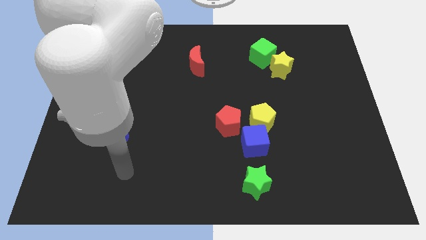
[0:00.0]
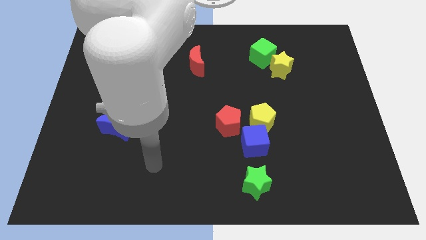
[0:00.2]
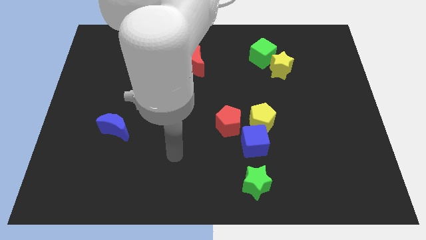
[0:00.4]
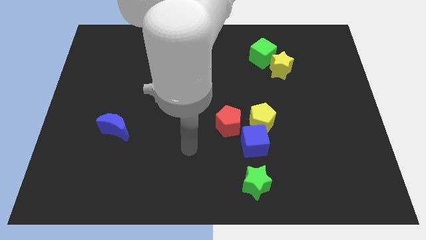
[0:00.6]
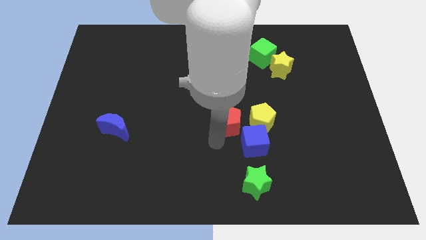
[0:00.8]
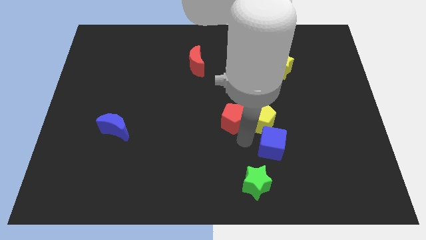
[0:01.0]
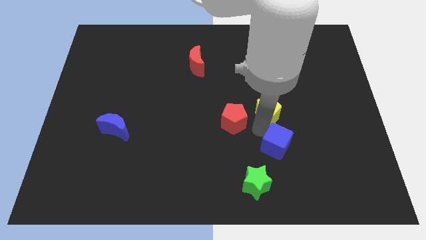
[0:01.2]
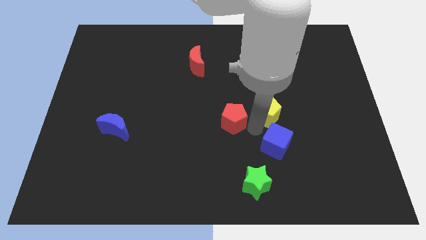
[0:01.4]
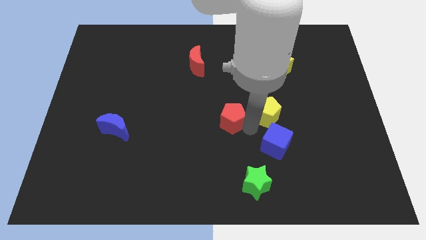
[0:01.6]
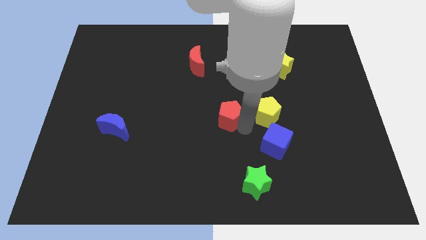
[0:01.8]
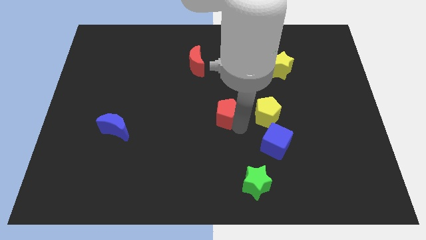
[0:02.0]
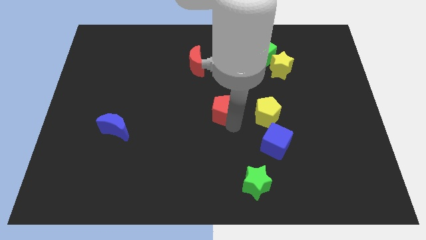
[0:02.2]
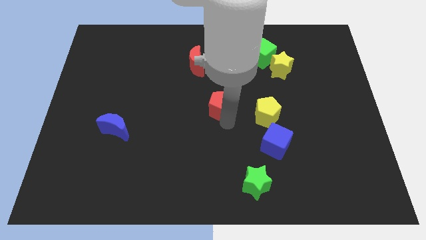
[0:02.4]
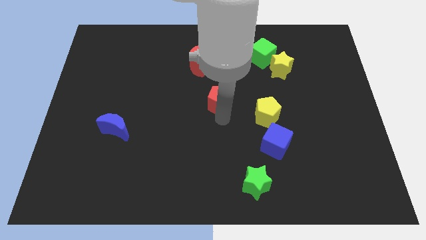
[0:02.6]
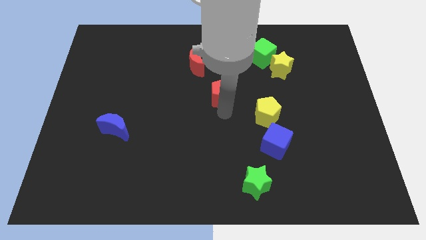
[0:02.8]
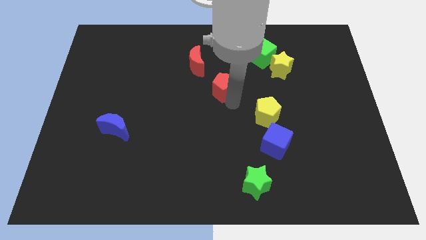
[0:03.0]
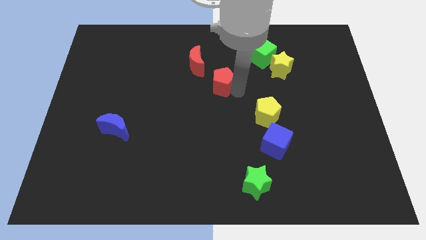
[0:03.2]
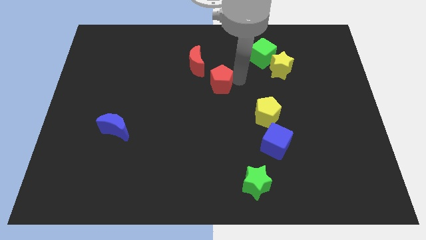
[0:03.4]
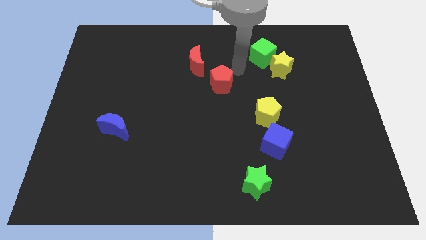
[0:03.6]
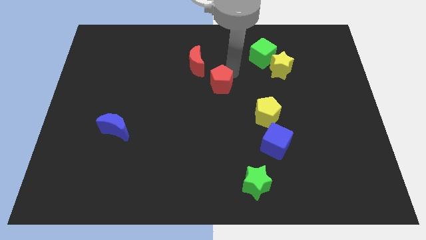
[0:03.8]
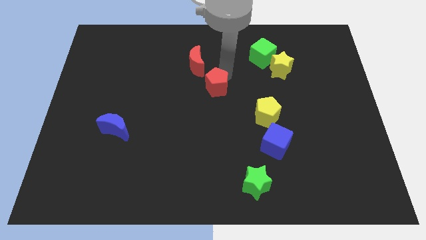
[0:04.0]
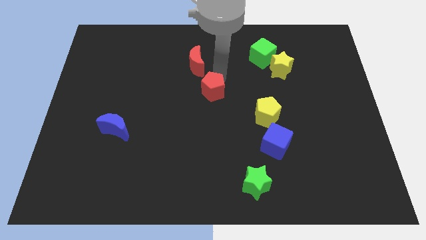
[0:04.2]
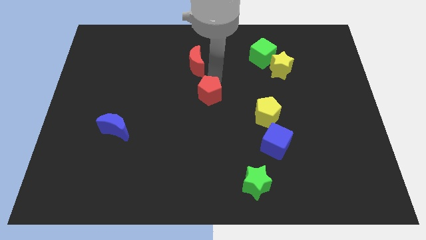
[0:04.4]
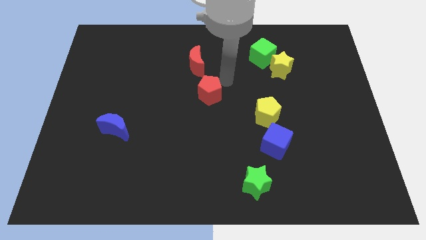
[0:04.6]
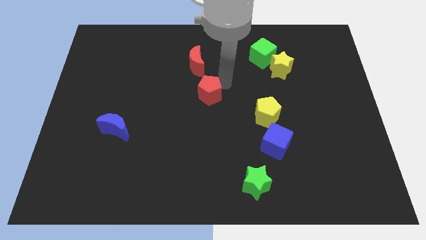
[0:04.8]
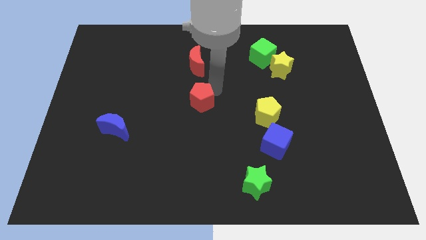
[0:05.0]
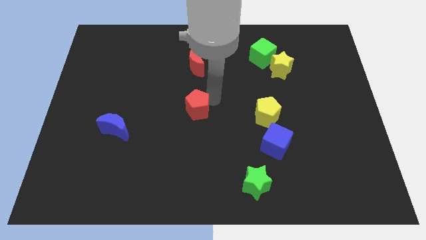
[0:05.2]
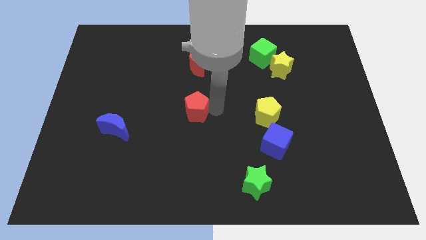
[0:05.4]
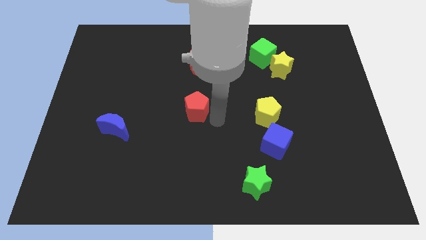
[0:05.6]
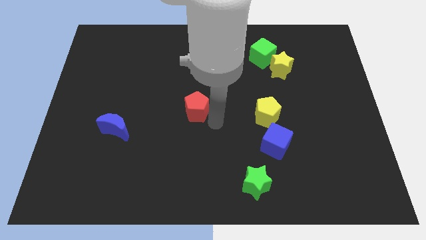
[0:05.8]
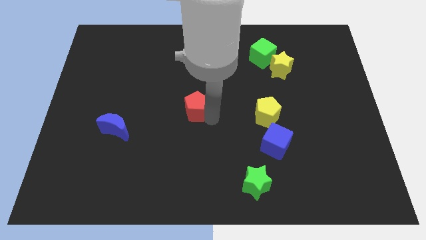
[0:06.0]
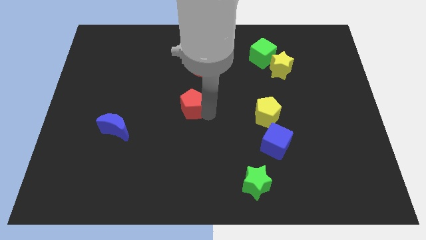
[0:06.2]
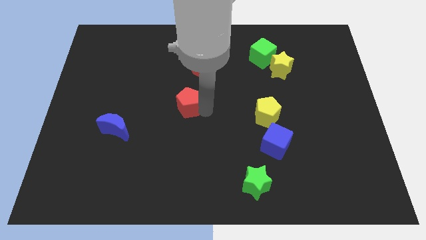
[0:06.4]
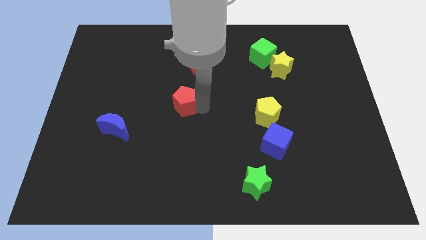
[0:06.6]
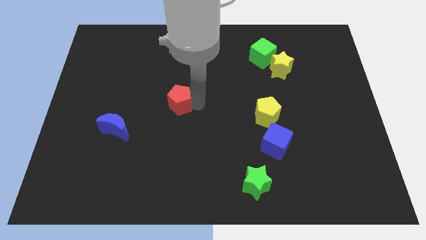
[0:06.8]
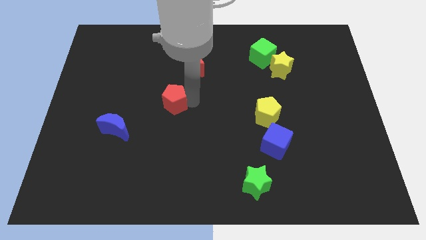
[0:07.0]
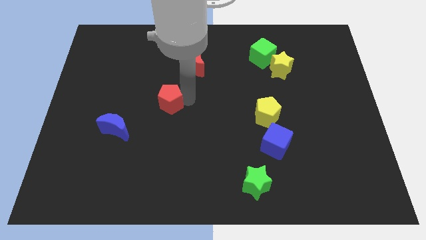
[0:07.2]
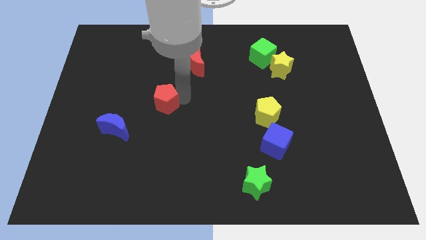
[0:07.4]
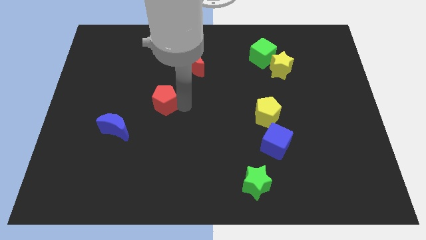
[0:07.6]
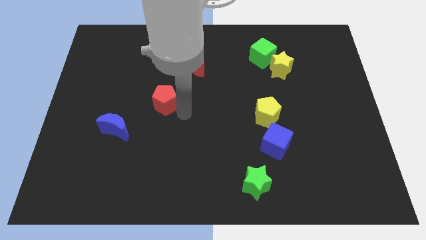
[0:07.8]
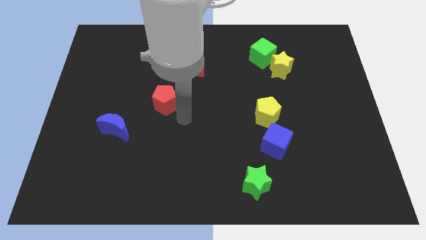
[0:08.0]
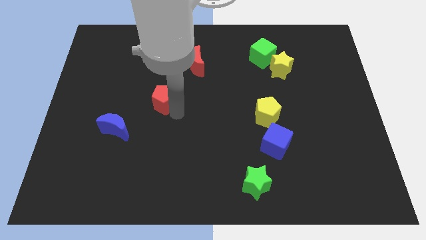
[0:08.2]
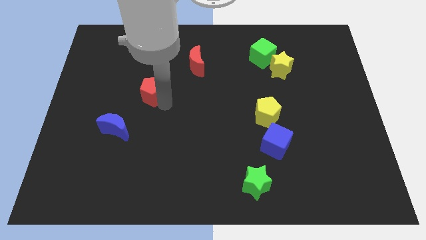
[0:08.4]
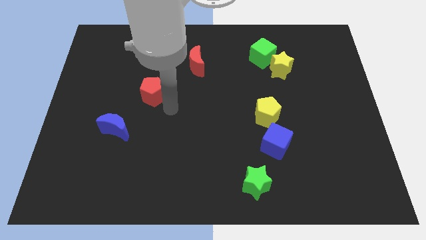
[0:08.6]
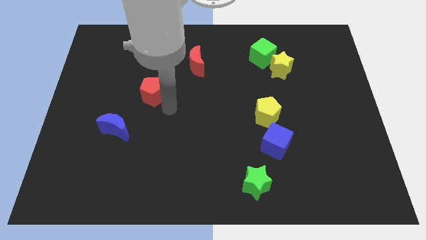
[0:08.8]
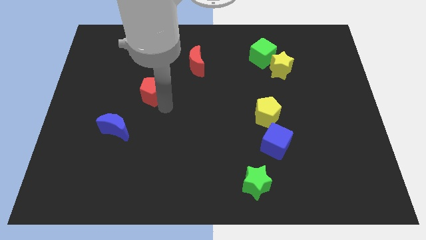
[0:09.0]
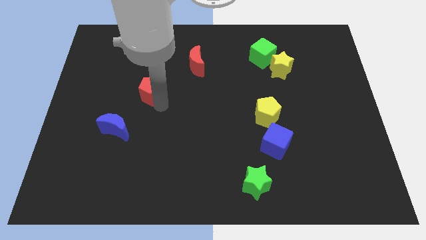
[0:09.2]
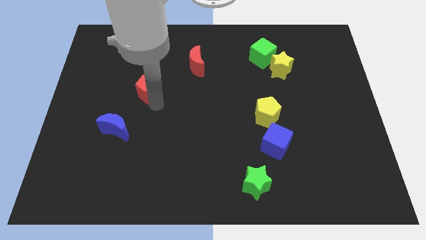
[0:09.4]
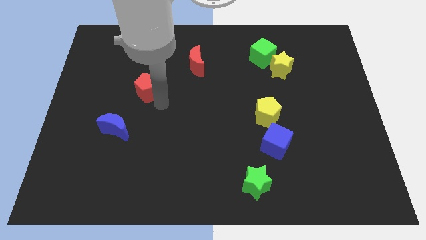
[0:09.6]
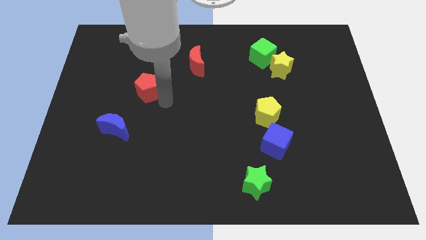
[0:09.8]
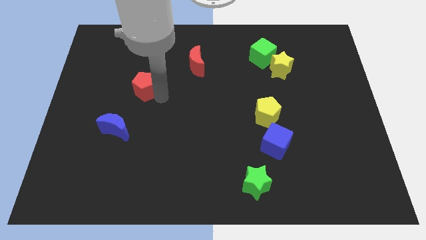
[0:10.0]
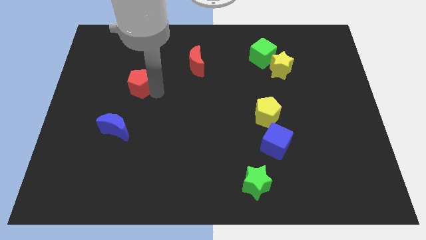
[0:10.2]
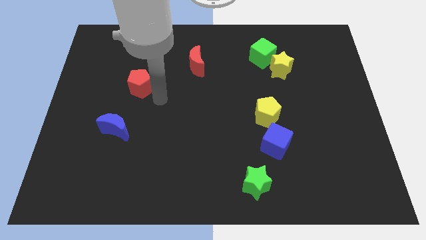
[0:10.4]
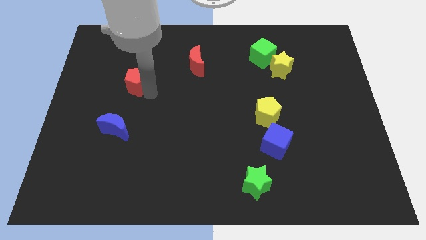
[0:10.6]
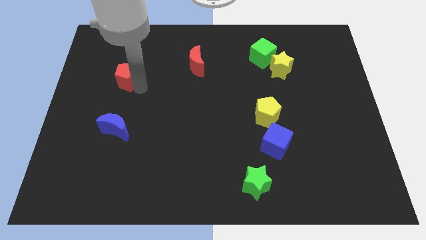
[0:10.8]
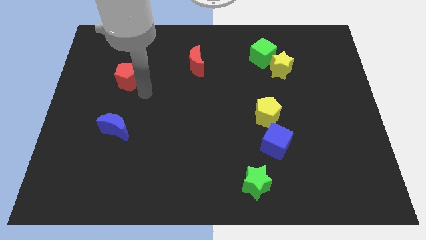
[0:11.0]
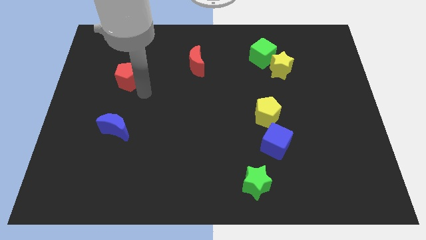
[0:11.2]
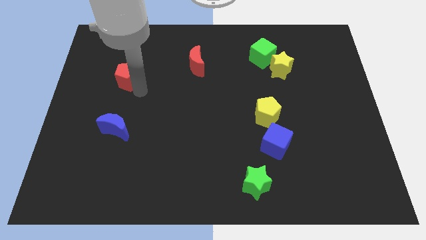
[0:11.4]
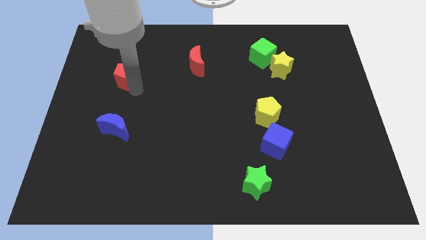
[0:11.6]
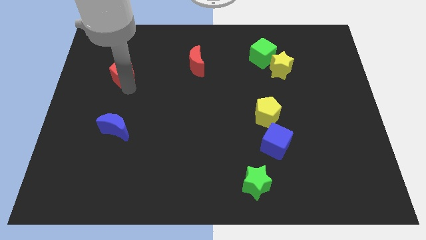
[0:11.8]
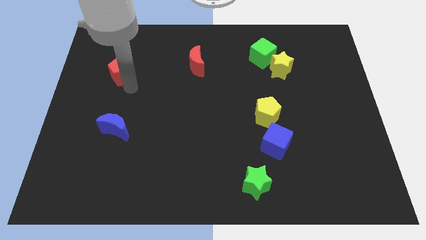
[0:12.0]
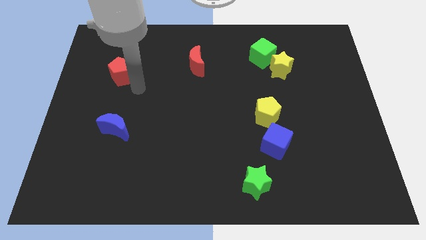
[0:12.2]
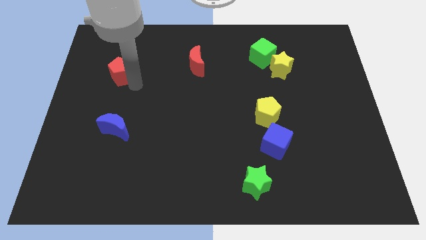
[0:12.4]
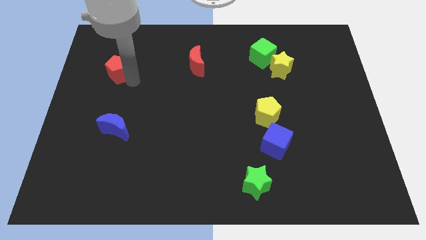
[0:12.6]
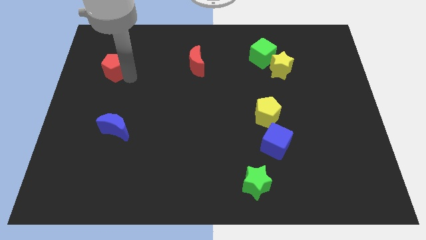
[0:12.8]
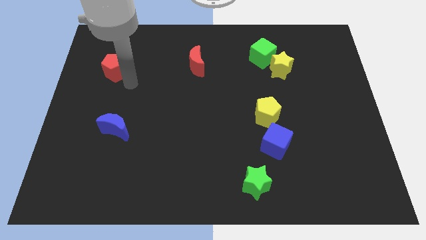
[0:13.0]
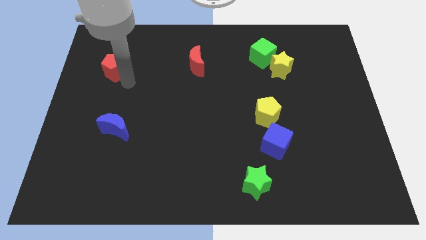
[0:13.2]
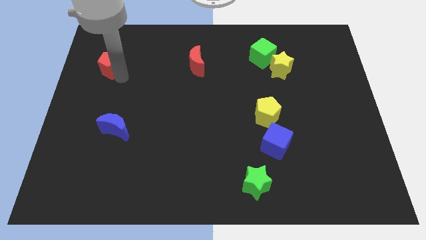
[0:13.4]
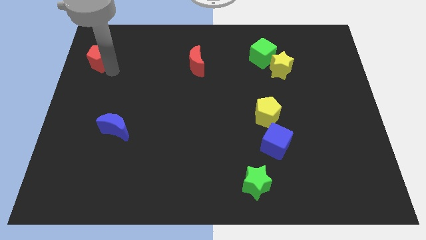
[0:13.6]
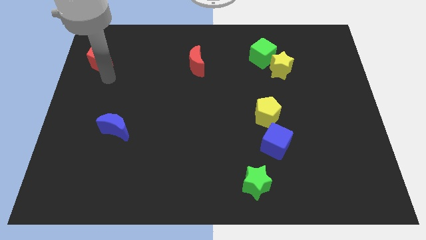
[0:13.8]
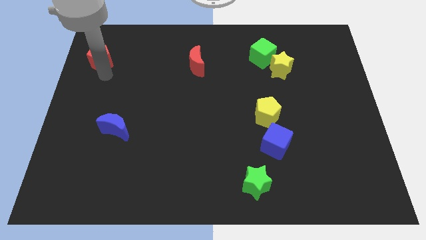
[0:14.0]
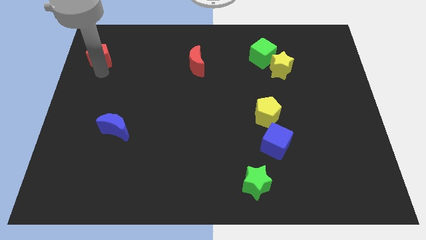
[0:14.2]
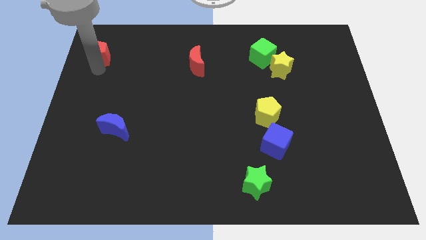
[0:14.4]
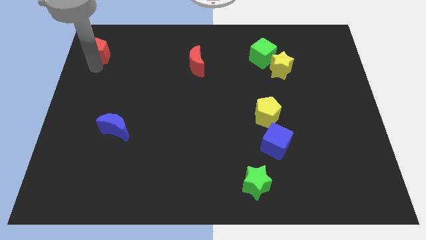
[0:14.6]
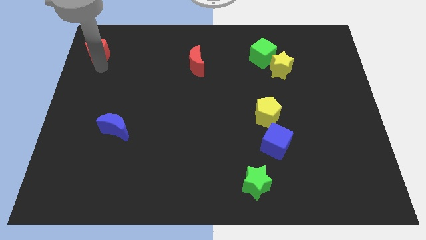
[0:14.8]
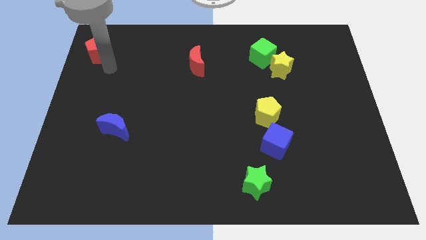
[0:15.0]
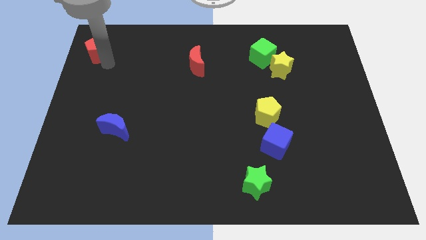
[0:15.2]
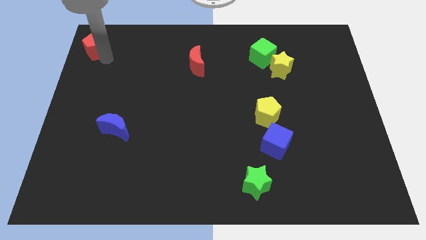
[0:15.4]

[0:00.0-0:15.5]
push the red pentagon to the upper left corner
